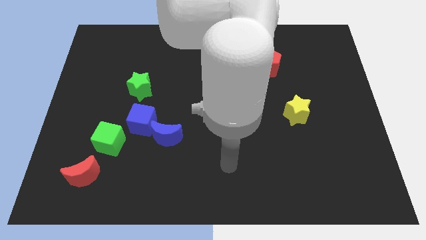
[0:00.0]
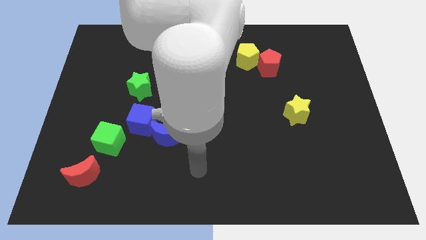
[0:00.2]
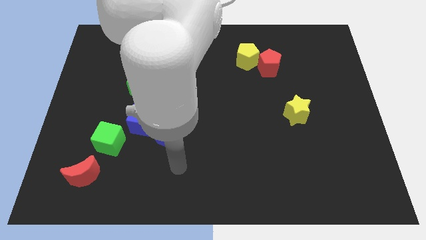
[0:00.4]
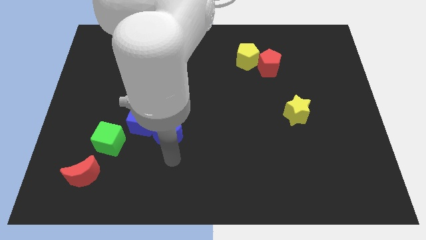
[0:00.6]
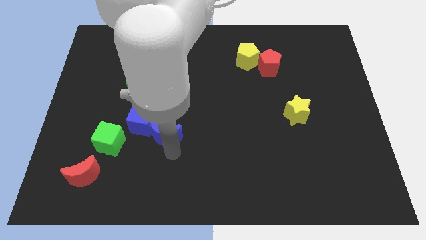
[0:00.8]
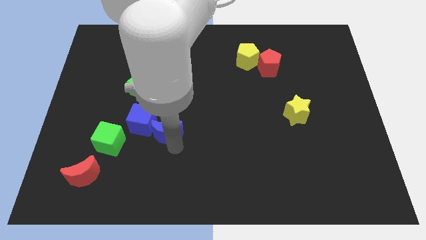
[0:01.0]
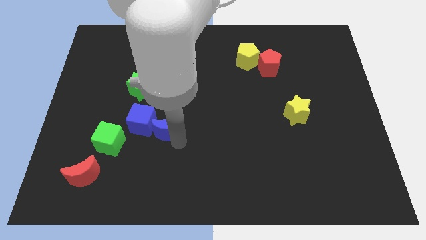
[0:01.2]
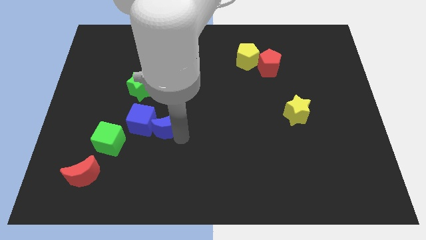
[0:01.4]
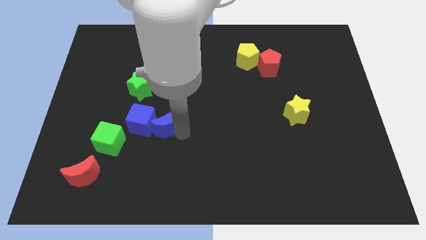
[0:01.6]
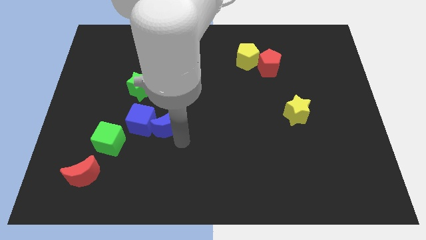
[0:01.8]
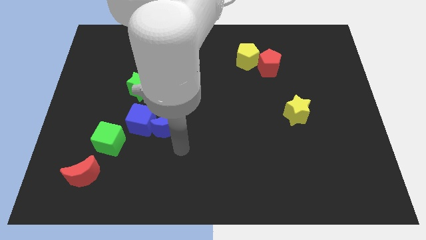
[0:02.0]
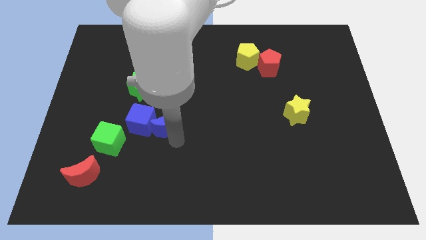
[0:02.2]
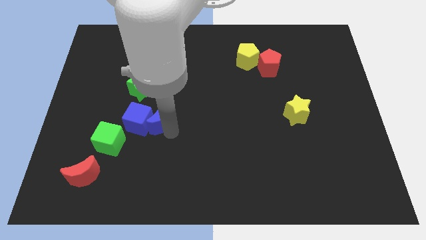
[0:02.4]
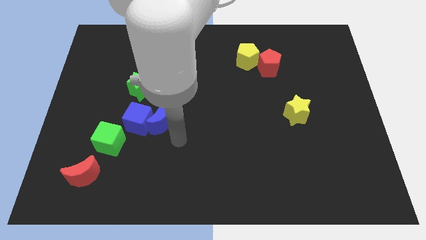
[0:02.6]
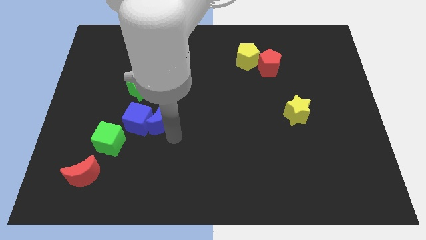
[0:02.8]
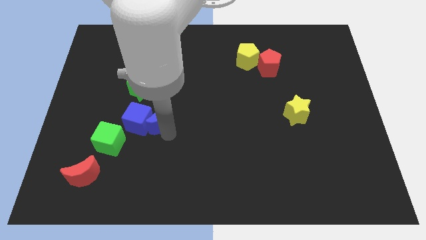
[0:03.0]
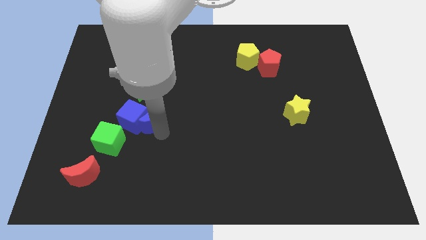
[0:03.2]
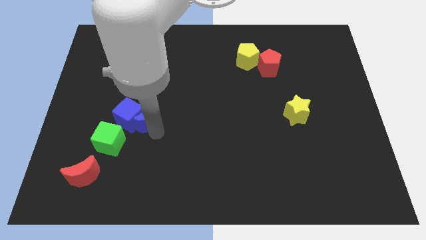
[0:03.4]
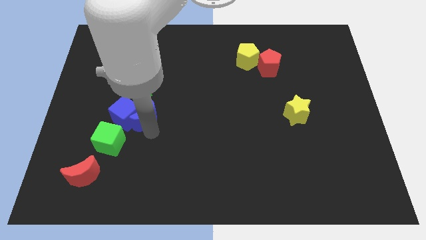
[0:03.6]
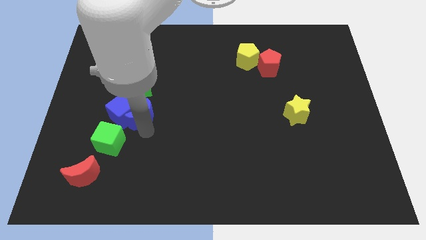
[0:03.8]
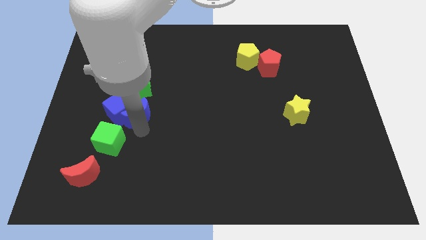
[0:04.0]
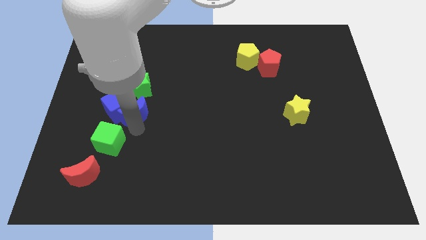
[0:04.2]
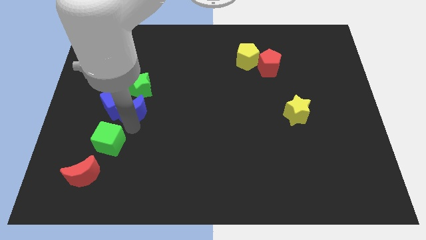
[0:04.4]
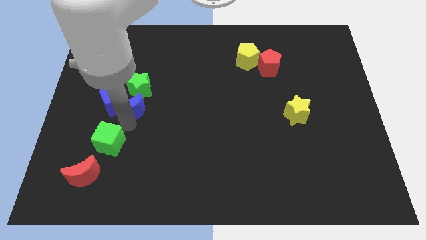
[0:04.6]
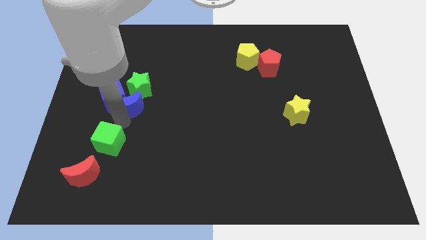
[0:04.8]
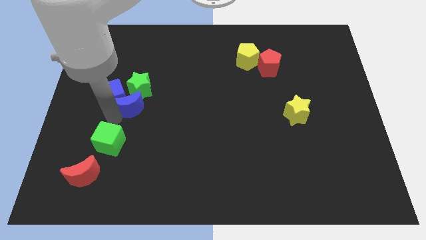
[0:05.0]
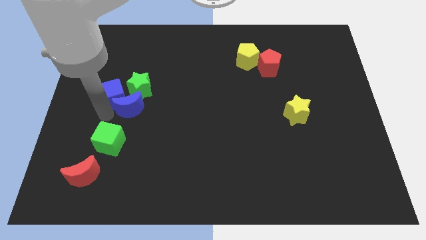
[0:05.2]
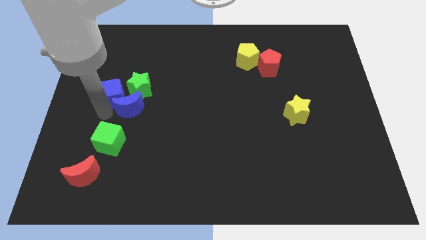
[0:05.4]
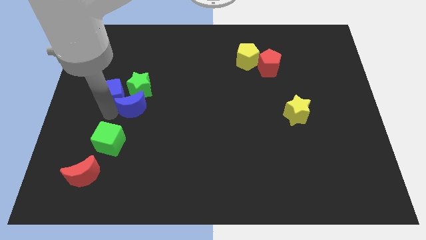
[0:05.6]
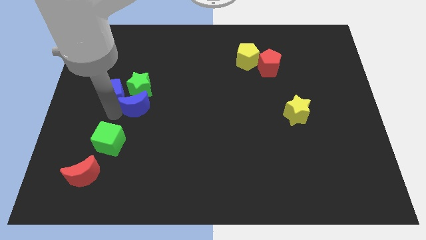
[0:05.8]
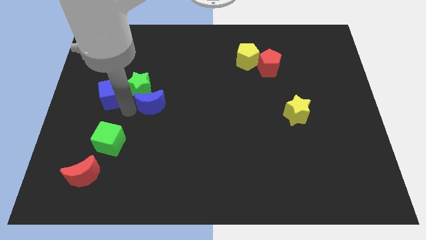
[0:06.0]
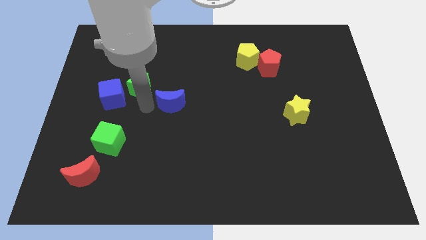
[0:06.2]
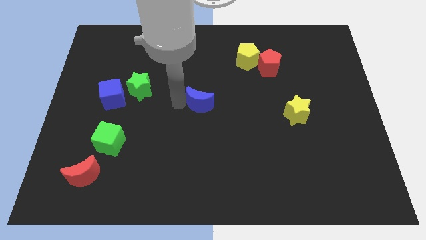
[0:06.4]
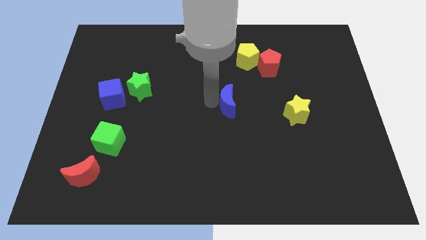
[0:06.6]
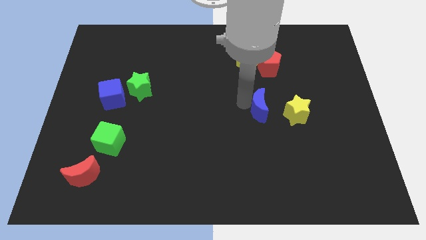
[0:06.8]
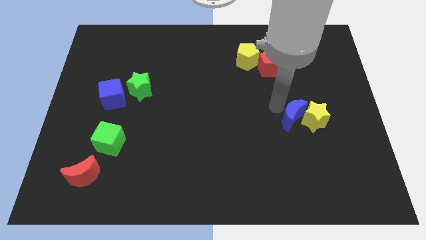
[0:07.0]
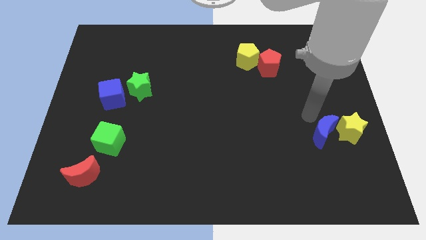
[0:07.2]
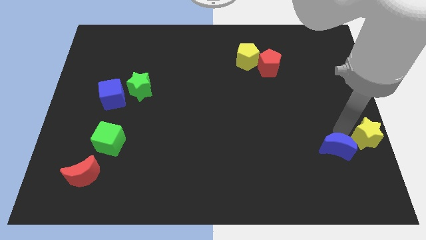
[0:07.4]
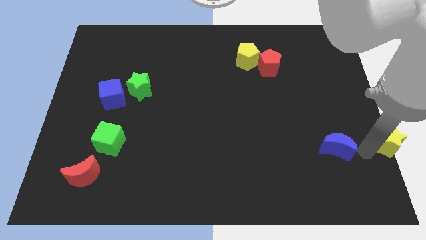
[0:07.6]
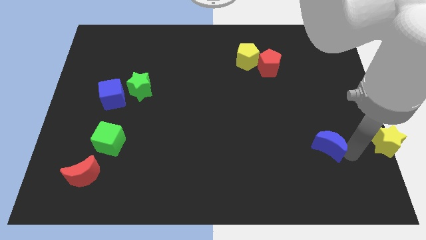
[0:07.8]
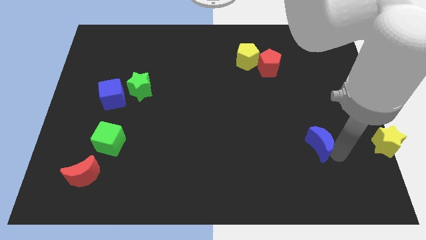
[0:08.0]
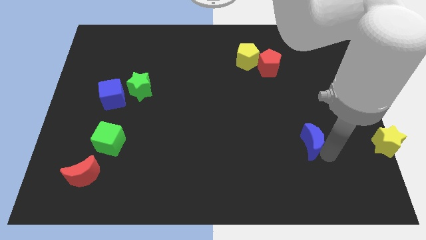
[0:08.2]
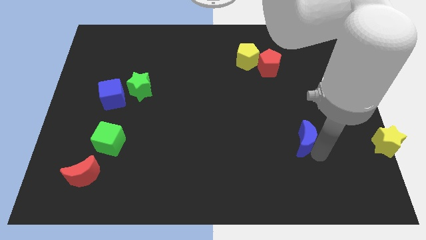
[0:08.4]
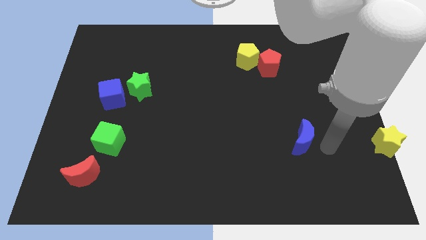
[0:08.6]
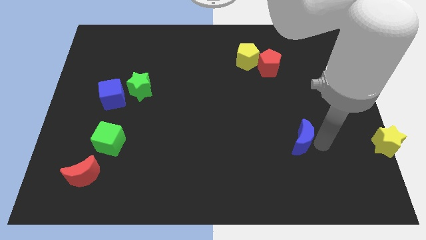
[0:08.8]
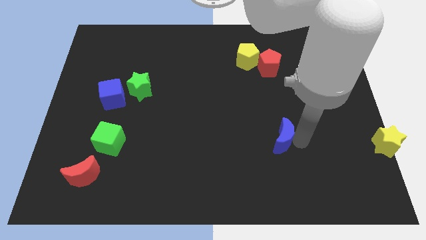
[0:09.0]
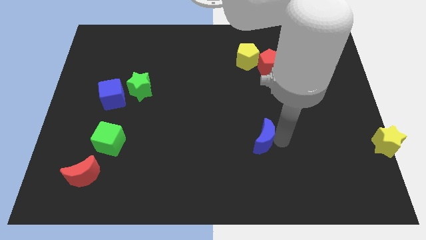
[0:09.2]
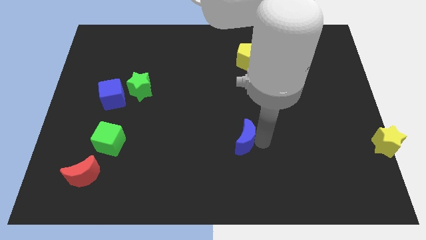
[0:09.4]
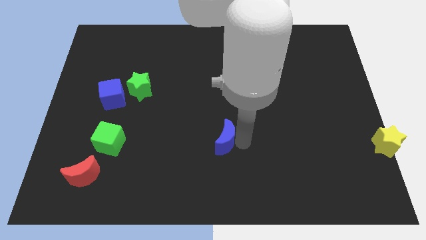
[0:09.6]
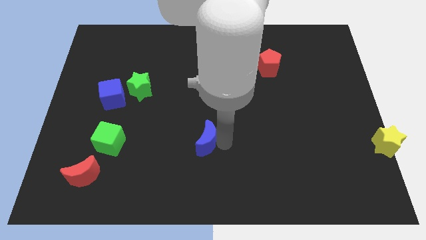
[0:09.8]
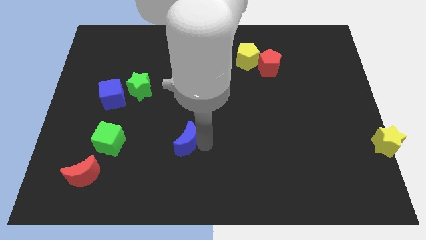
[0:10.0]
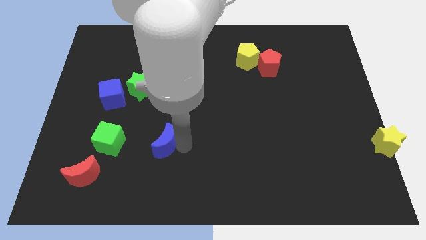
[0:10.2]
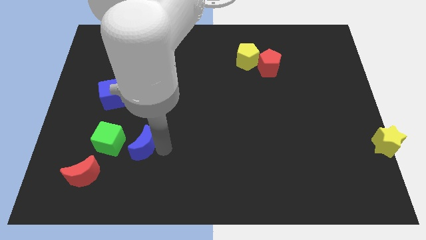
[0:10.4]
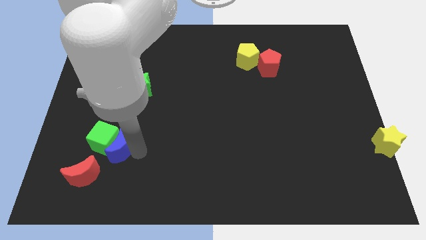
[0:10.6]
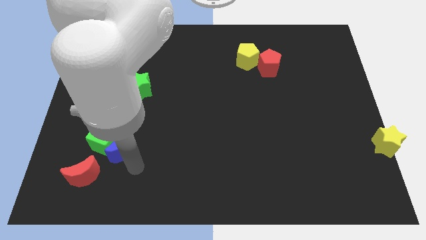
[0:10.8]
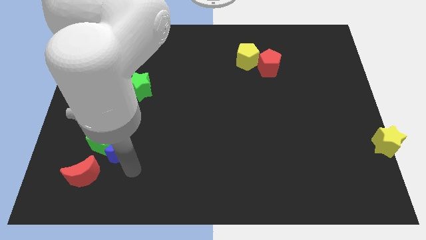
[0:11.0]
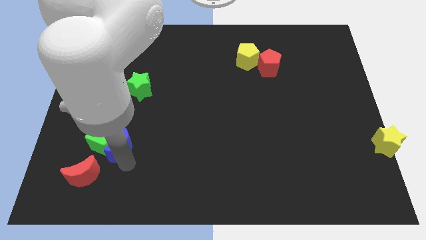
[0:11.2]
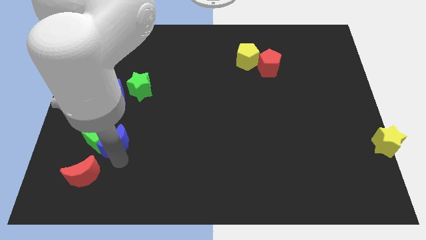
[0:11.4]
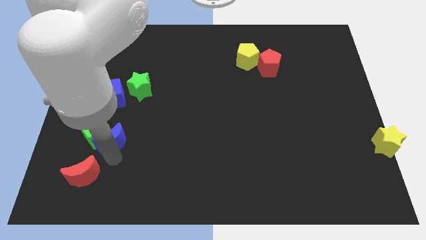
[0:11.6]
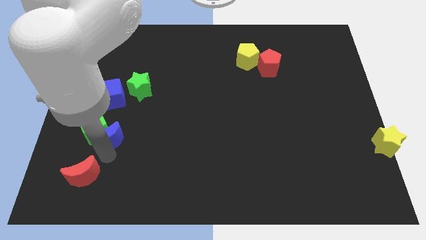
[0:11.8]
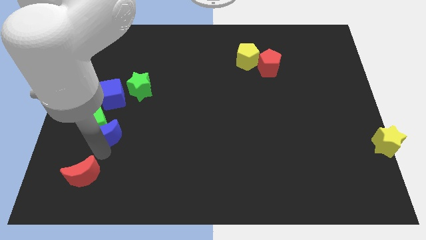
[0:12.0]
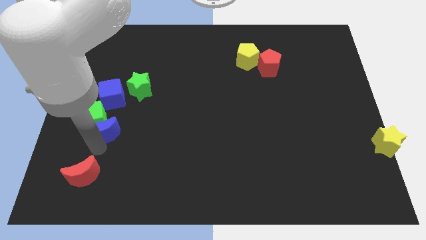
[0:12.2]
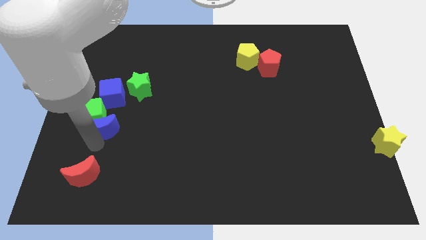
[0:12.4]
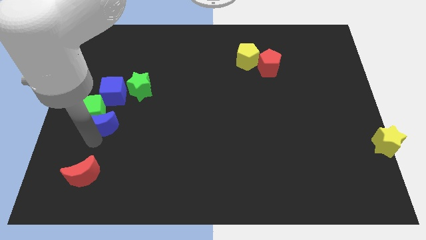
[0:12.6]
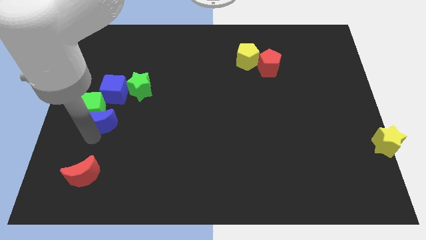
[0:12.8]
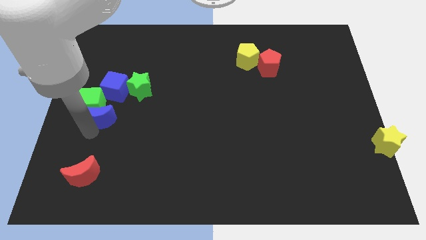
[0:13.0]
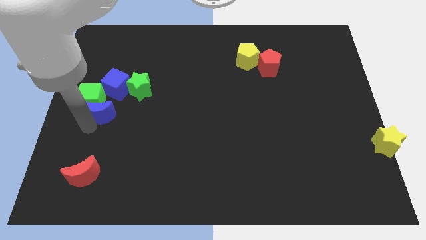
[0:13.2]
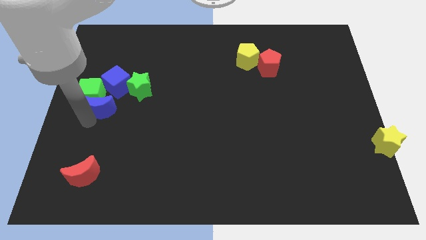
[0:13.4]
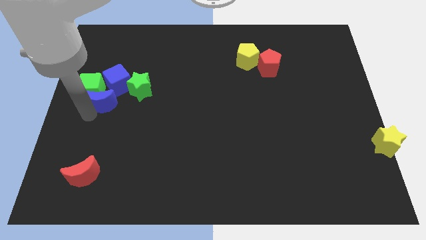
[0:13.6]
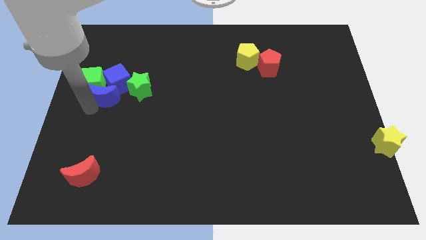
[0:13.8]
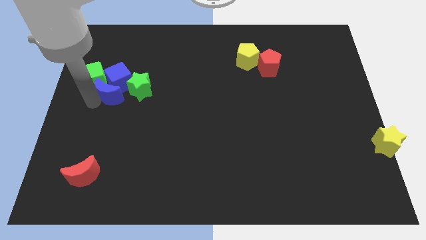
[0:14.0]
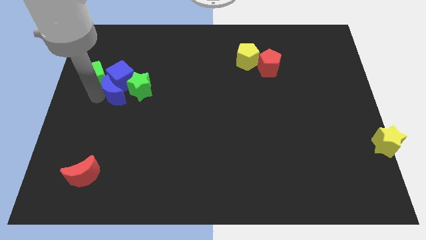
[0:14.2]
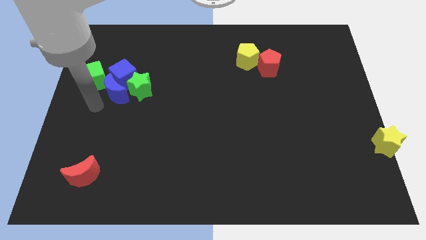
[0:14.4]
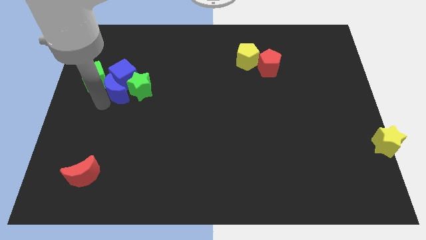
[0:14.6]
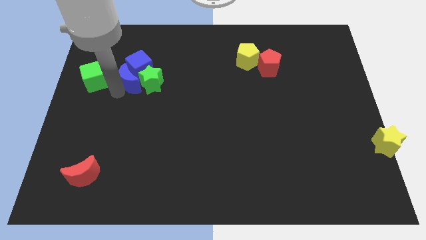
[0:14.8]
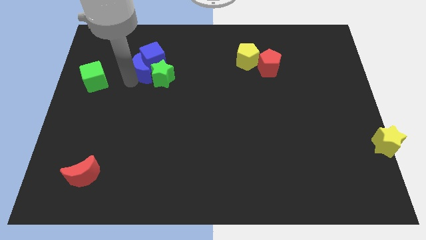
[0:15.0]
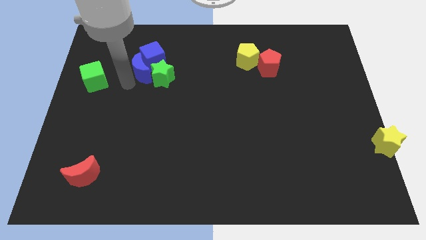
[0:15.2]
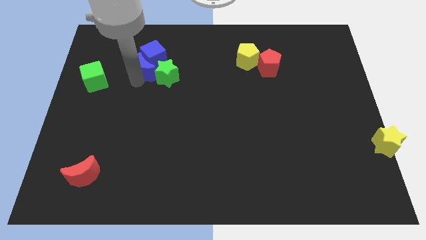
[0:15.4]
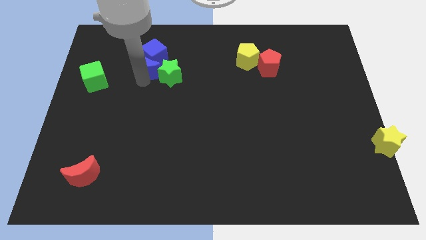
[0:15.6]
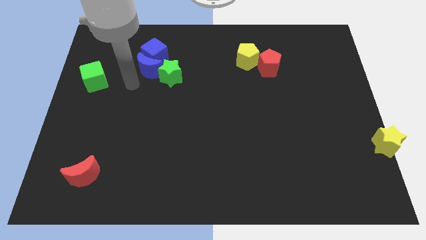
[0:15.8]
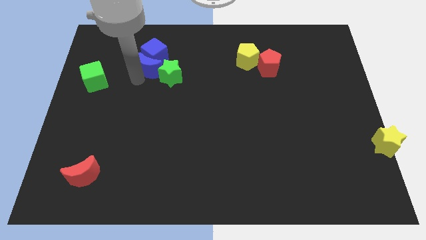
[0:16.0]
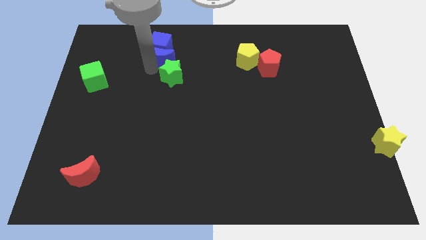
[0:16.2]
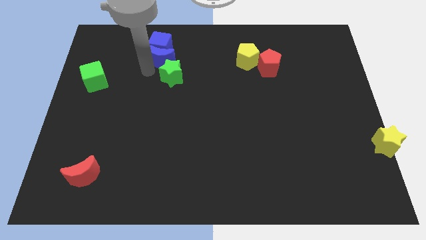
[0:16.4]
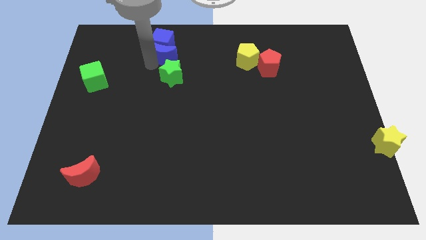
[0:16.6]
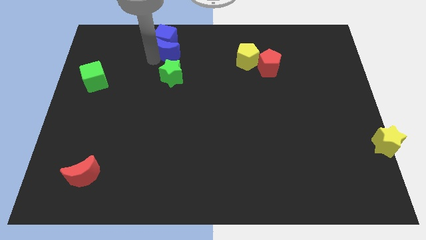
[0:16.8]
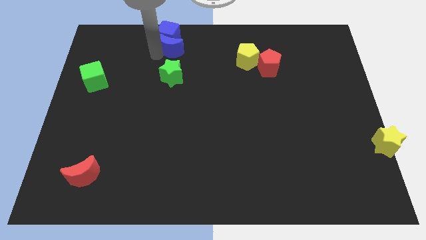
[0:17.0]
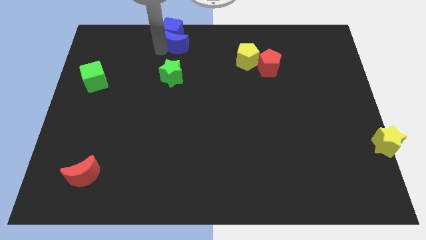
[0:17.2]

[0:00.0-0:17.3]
move the blue moon to the top
